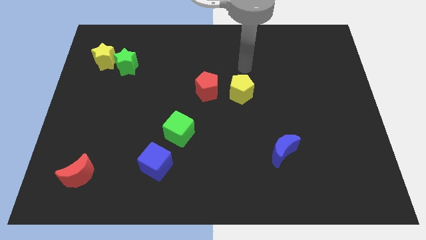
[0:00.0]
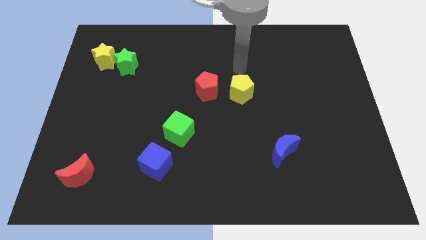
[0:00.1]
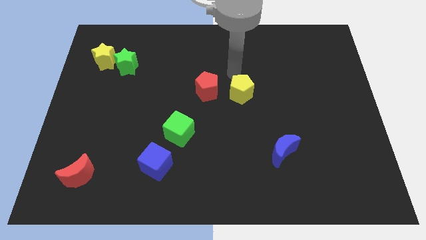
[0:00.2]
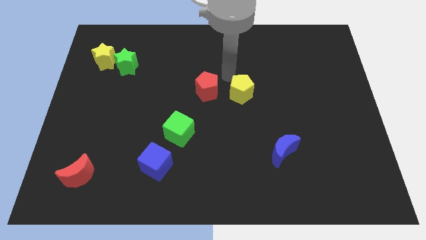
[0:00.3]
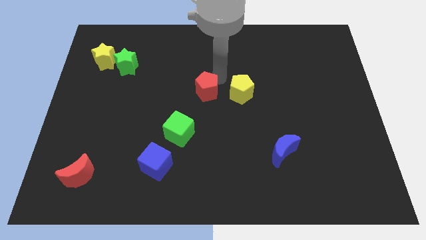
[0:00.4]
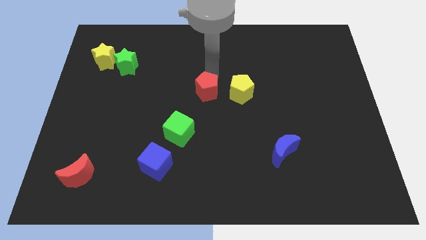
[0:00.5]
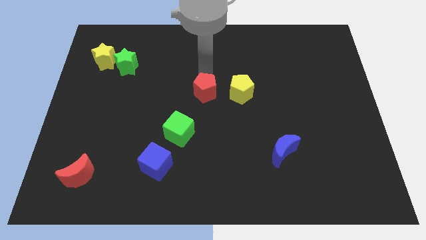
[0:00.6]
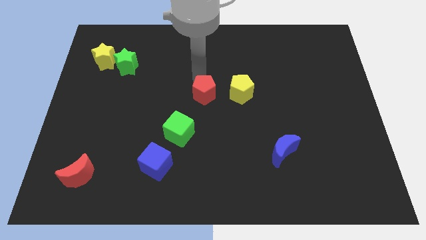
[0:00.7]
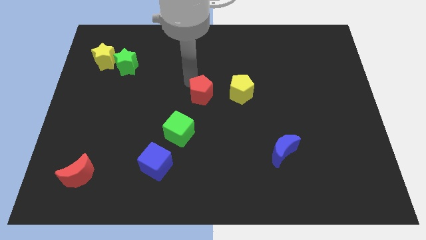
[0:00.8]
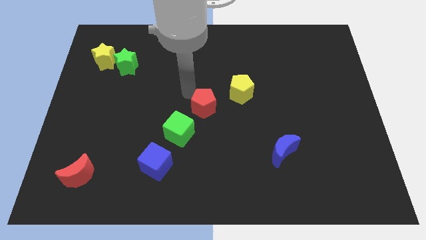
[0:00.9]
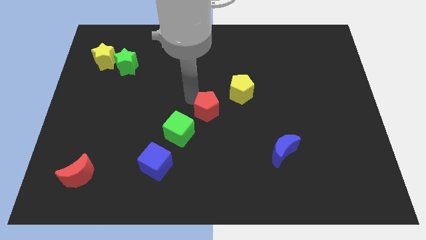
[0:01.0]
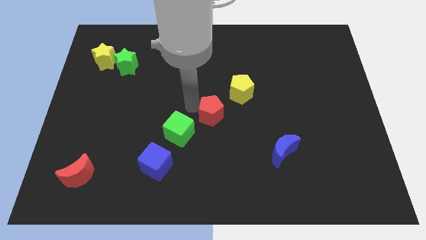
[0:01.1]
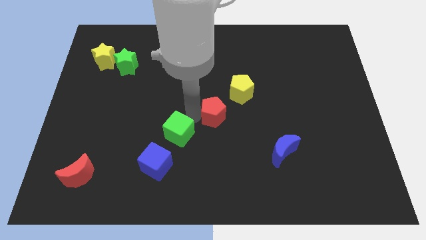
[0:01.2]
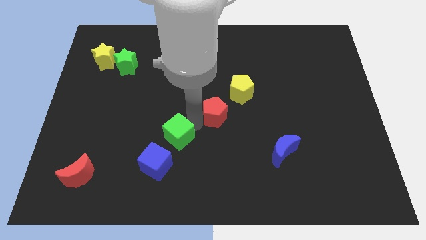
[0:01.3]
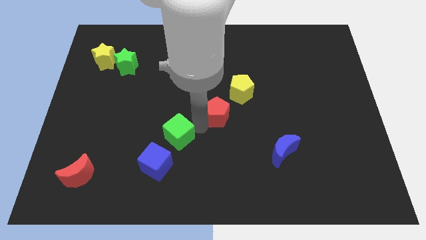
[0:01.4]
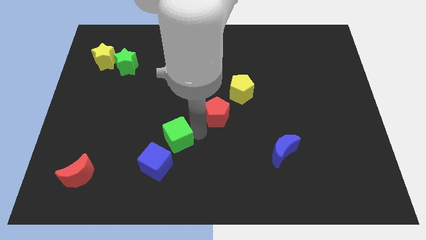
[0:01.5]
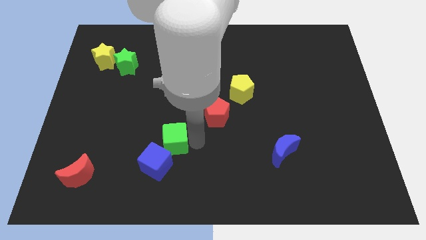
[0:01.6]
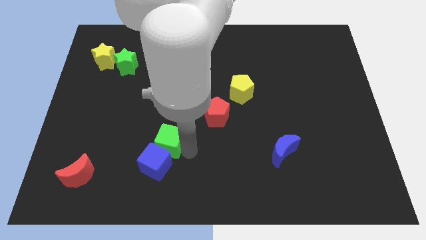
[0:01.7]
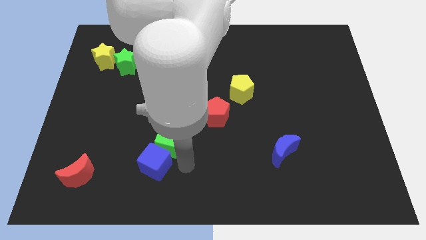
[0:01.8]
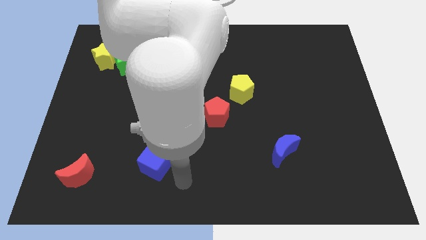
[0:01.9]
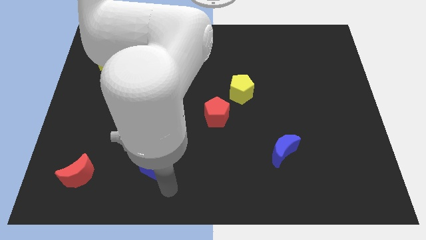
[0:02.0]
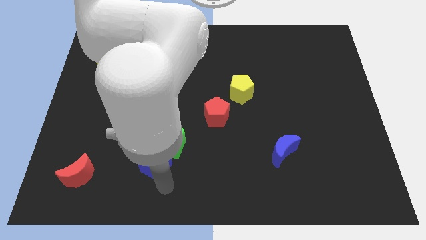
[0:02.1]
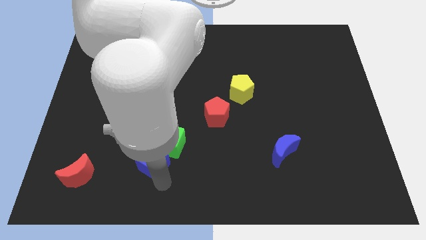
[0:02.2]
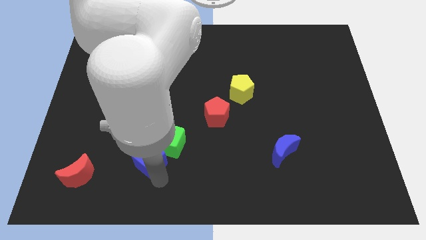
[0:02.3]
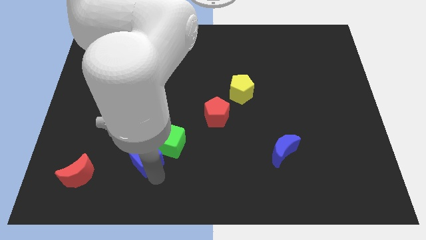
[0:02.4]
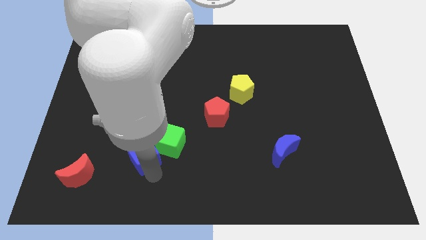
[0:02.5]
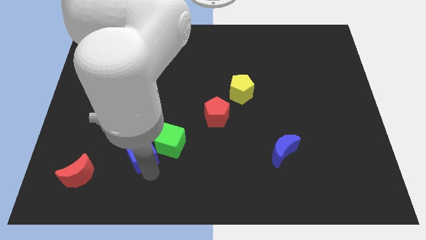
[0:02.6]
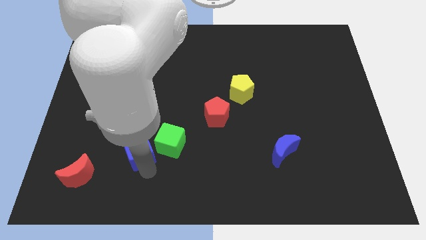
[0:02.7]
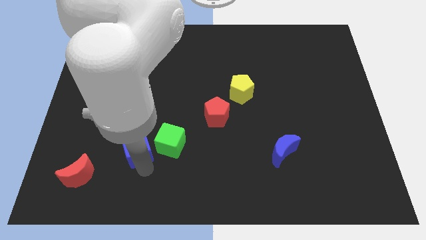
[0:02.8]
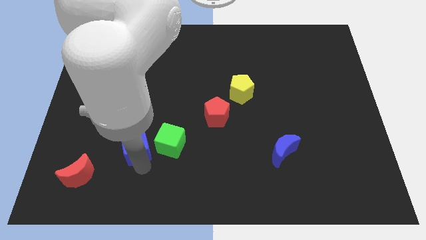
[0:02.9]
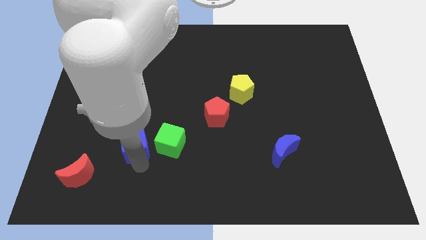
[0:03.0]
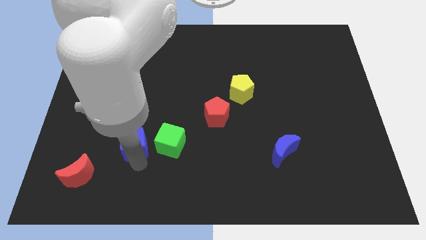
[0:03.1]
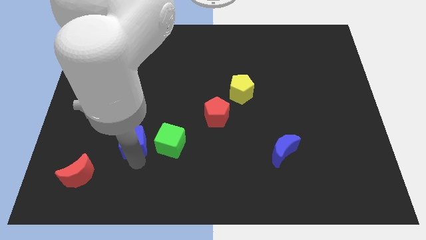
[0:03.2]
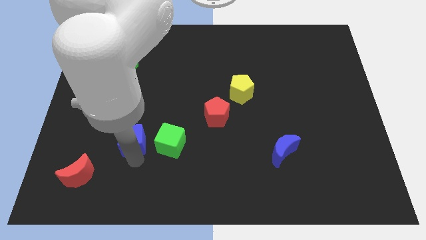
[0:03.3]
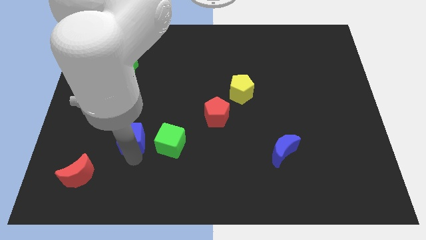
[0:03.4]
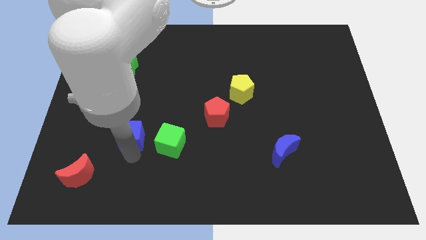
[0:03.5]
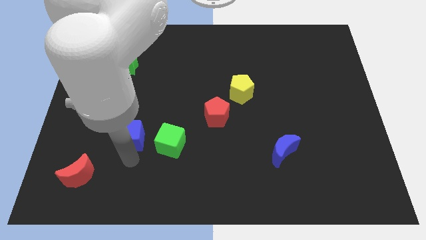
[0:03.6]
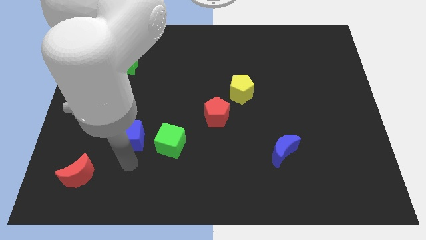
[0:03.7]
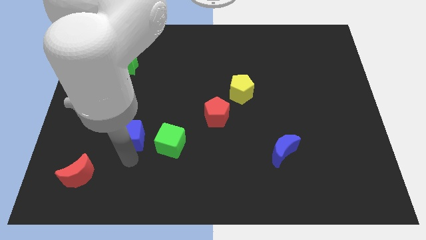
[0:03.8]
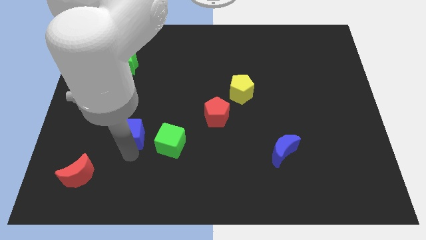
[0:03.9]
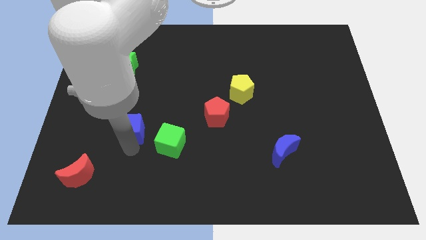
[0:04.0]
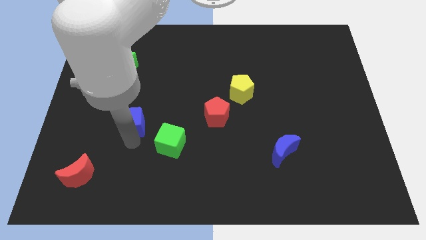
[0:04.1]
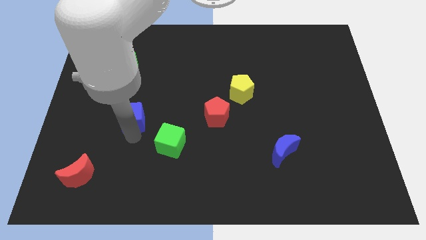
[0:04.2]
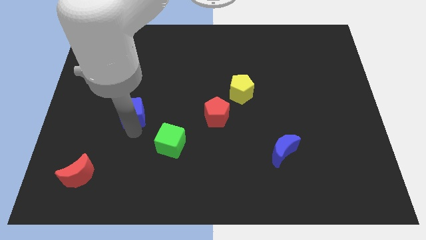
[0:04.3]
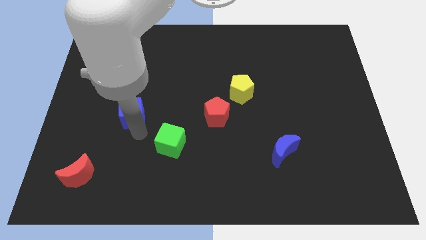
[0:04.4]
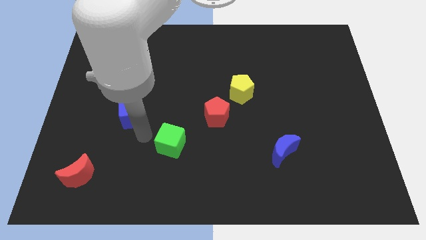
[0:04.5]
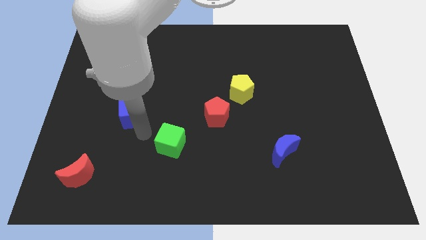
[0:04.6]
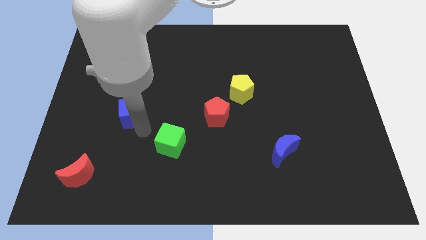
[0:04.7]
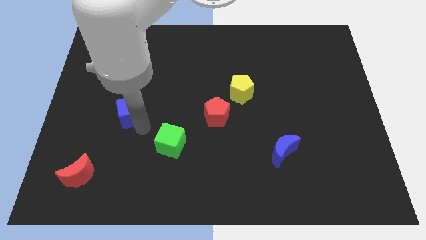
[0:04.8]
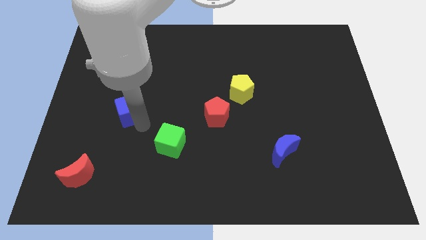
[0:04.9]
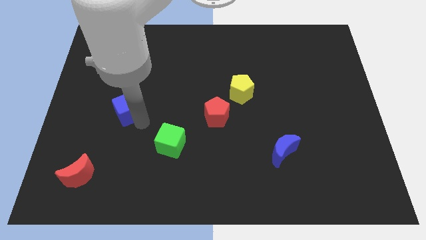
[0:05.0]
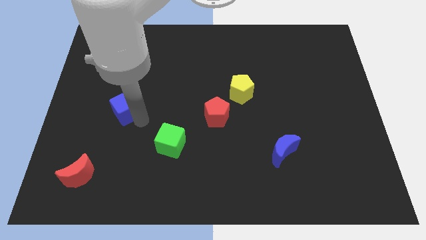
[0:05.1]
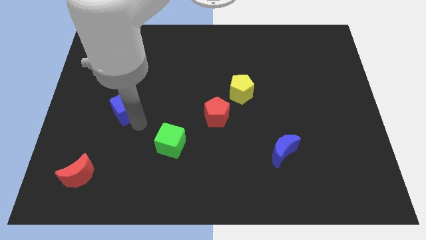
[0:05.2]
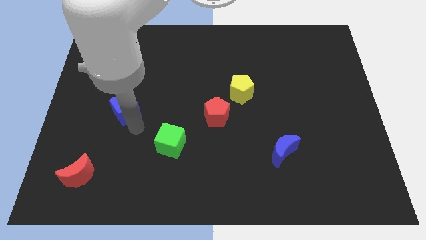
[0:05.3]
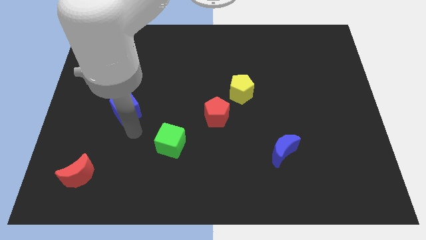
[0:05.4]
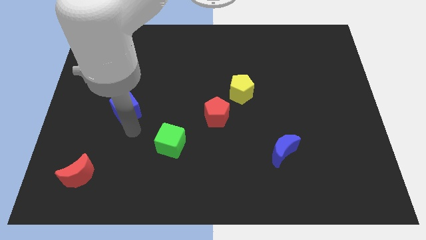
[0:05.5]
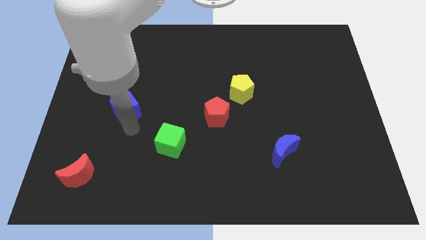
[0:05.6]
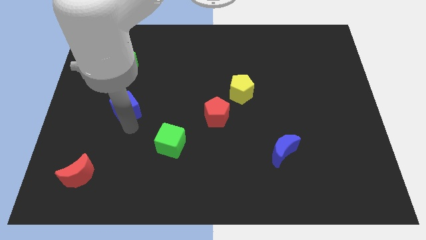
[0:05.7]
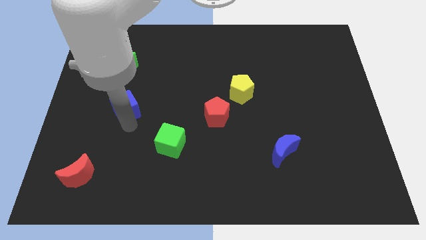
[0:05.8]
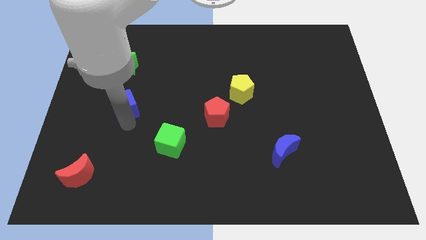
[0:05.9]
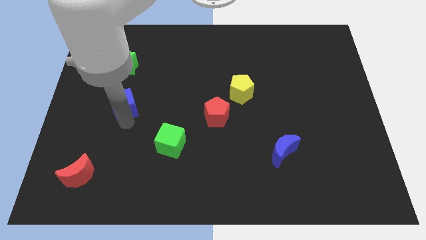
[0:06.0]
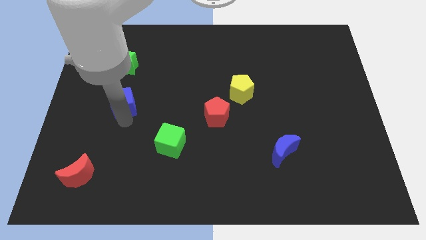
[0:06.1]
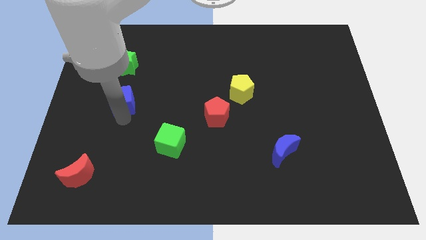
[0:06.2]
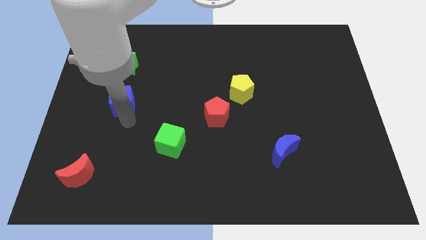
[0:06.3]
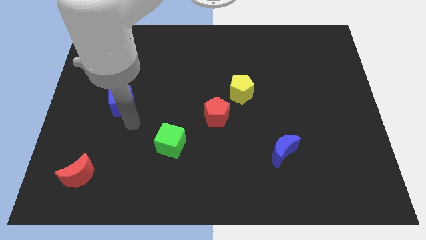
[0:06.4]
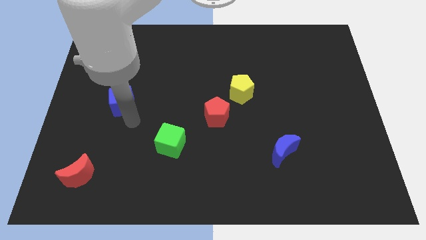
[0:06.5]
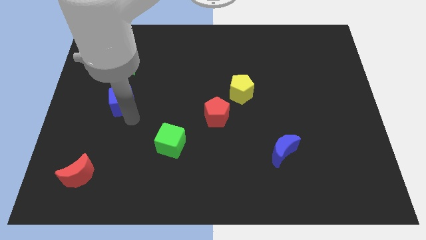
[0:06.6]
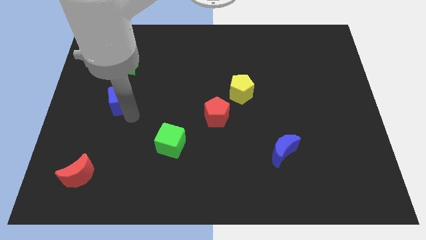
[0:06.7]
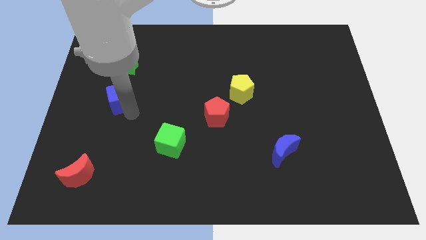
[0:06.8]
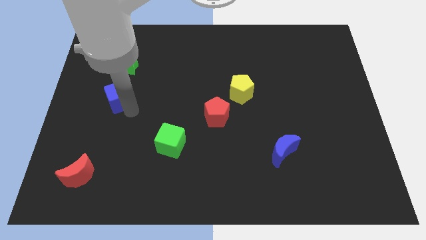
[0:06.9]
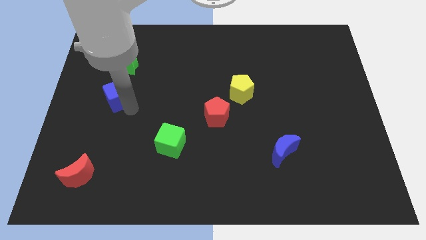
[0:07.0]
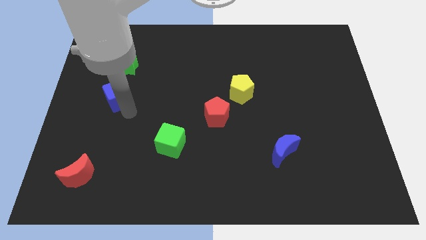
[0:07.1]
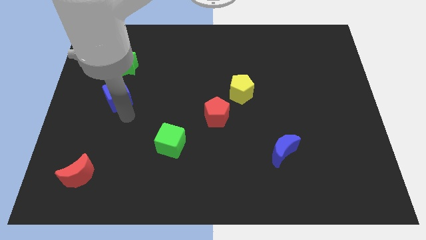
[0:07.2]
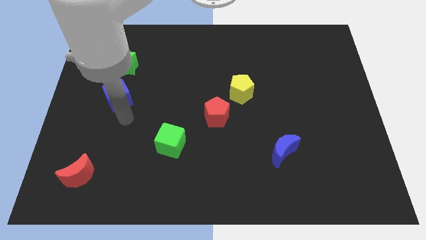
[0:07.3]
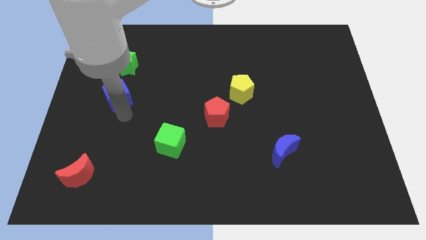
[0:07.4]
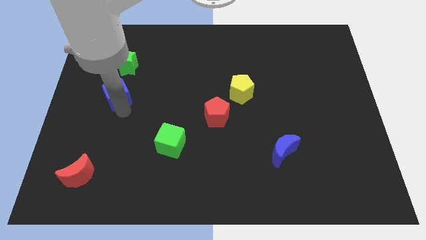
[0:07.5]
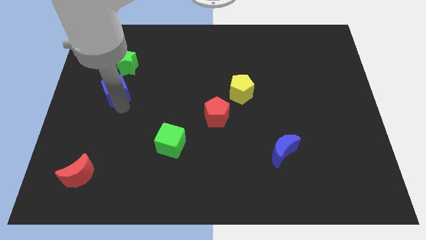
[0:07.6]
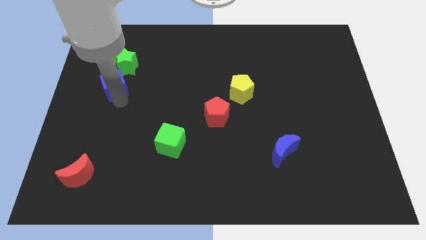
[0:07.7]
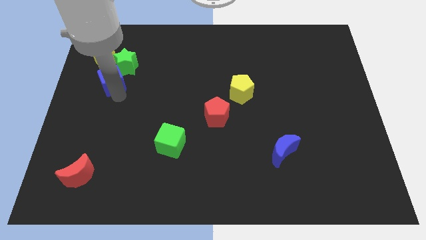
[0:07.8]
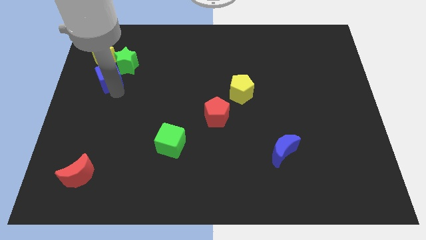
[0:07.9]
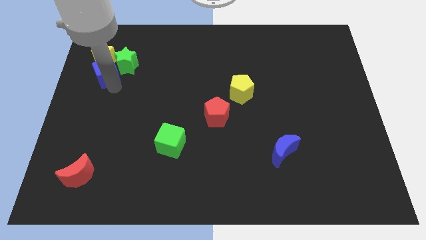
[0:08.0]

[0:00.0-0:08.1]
push the blue cube next to the yellow star

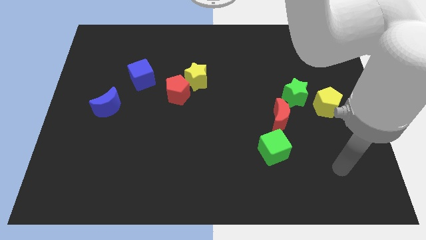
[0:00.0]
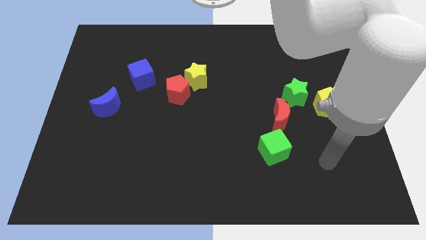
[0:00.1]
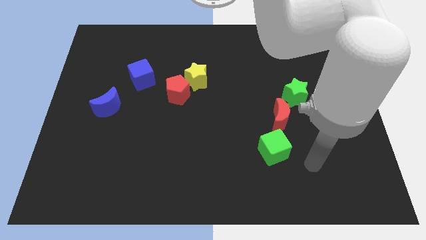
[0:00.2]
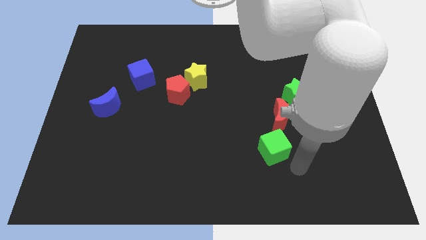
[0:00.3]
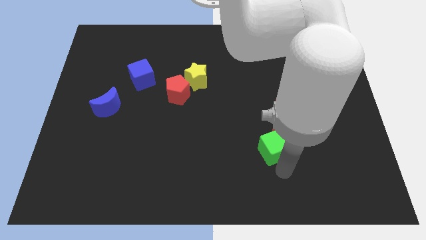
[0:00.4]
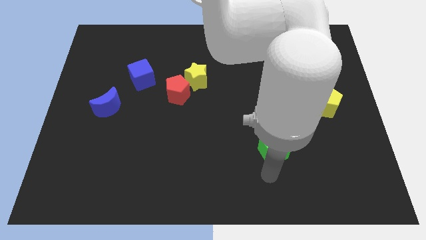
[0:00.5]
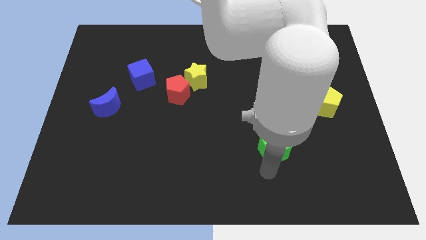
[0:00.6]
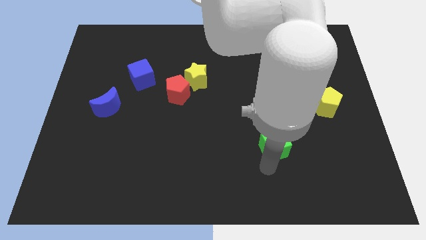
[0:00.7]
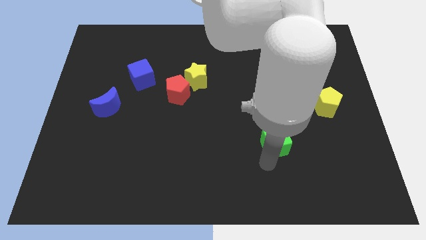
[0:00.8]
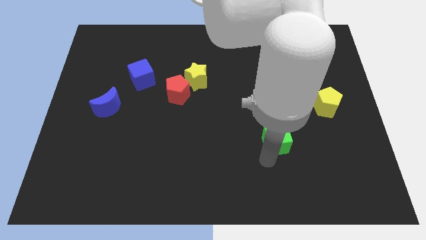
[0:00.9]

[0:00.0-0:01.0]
slide the green cube next to the red moon
